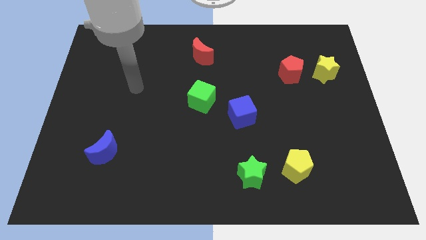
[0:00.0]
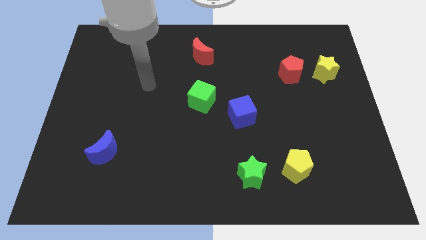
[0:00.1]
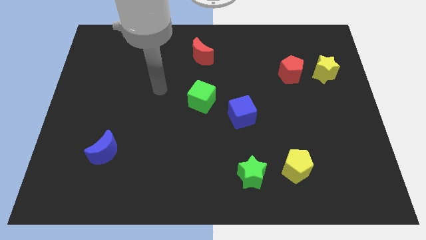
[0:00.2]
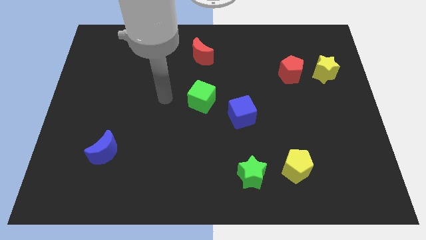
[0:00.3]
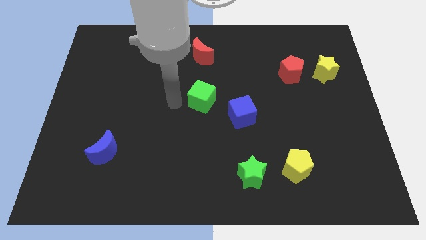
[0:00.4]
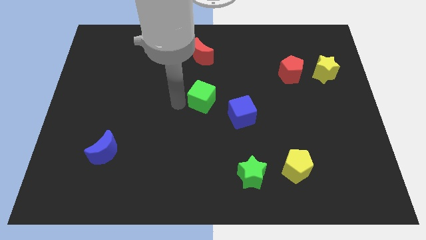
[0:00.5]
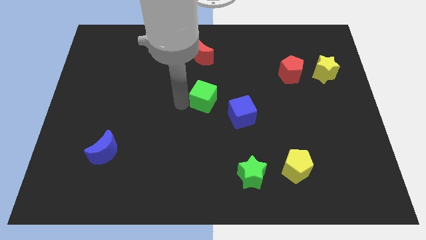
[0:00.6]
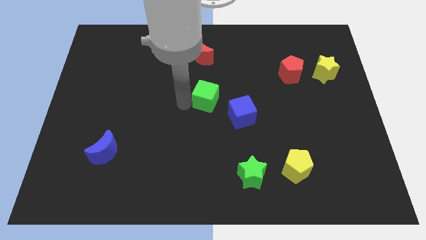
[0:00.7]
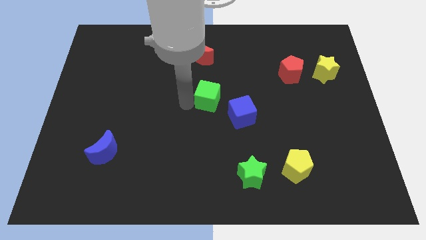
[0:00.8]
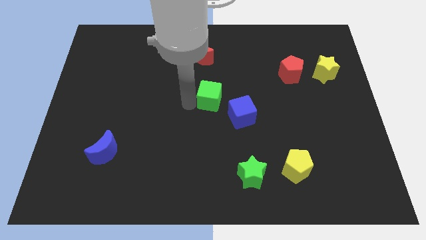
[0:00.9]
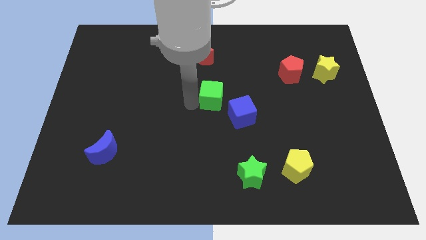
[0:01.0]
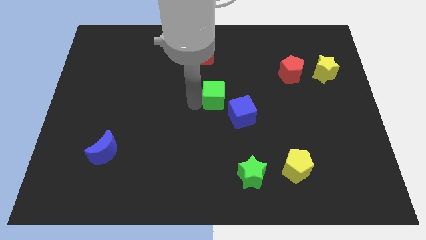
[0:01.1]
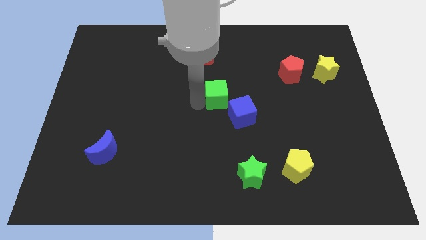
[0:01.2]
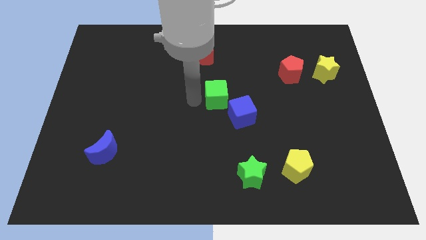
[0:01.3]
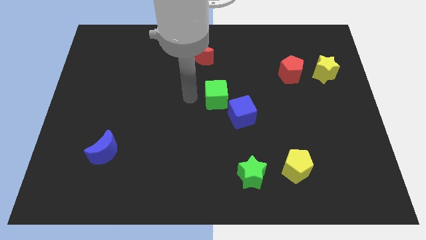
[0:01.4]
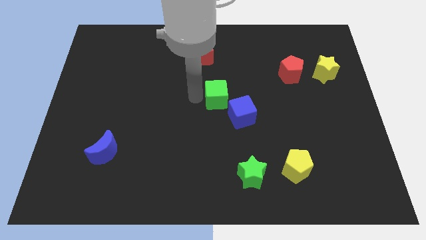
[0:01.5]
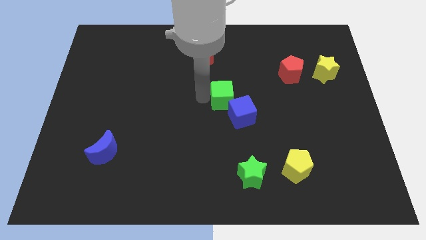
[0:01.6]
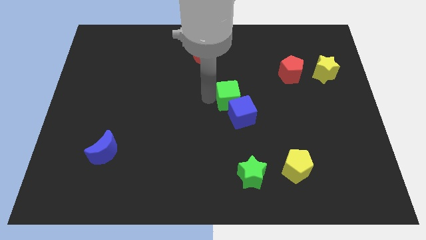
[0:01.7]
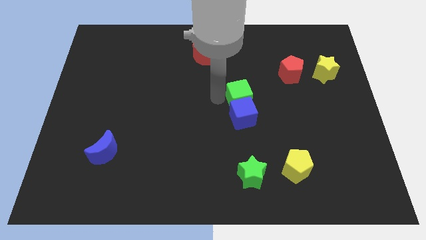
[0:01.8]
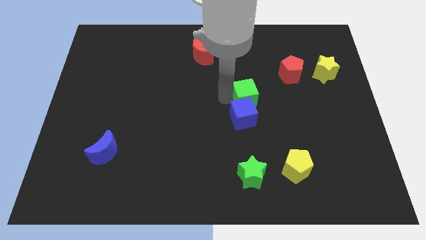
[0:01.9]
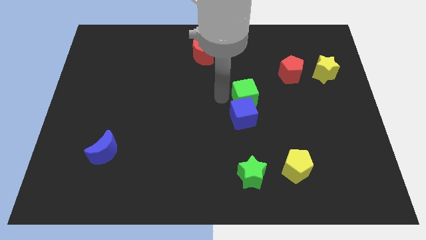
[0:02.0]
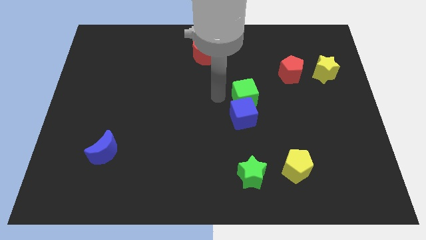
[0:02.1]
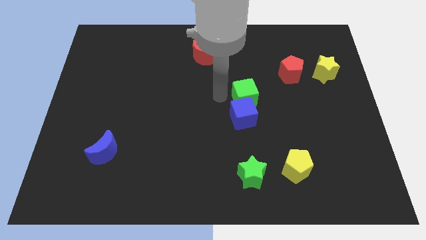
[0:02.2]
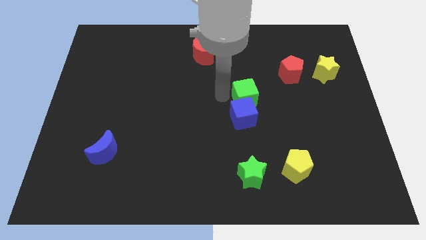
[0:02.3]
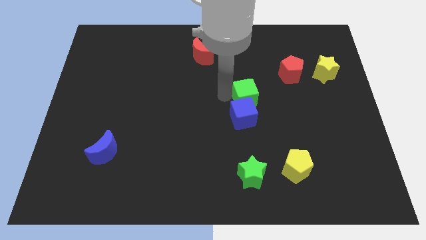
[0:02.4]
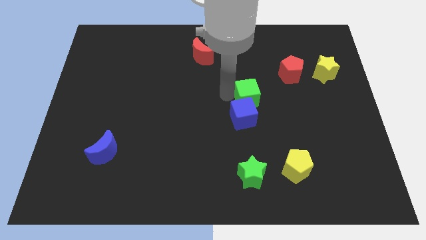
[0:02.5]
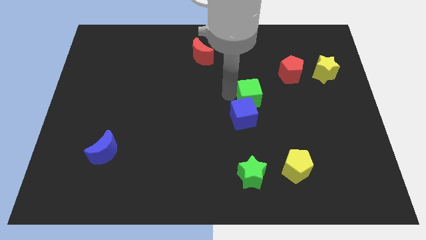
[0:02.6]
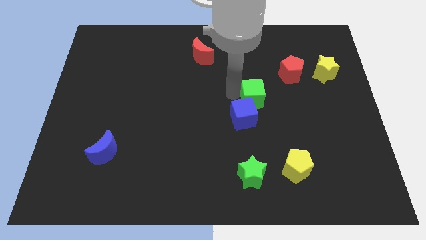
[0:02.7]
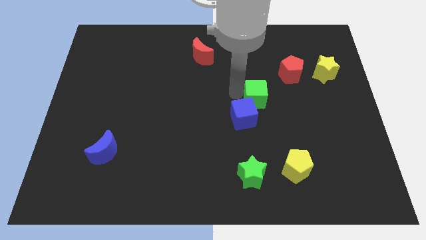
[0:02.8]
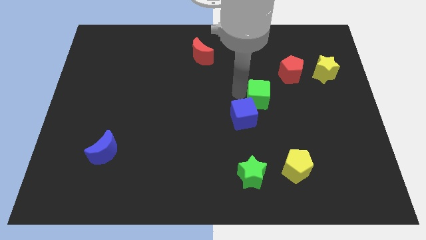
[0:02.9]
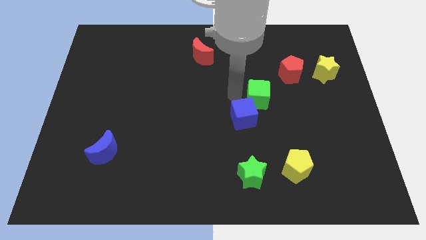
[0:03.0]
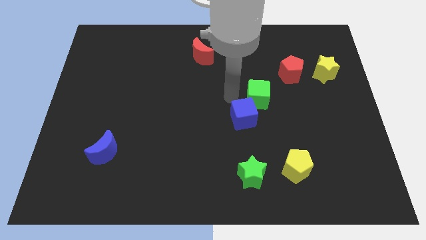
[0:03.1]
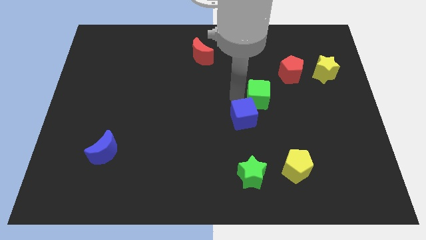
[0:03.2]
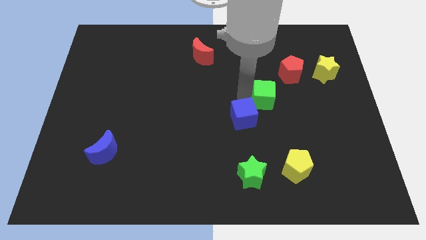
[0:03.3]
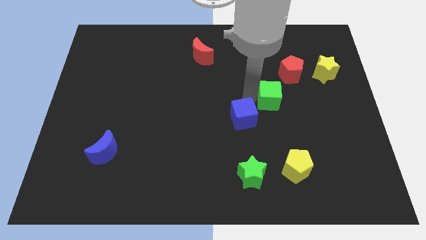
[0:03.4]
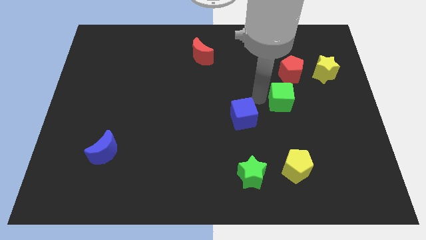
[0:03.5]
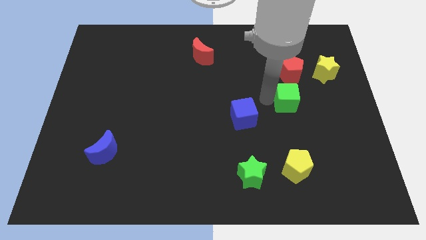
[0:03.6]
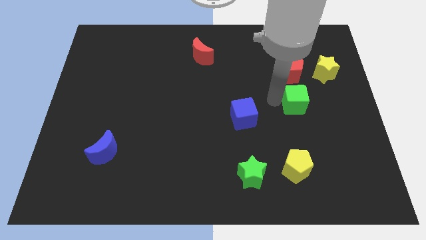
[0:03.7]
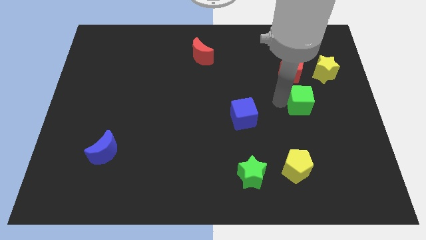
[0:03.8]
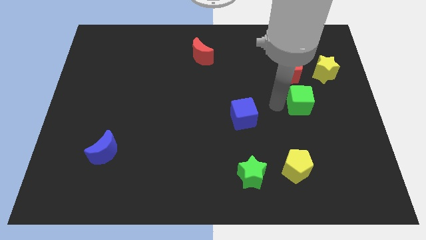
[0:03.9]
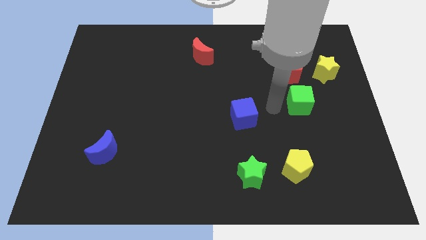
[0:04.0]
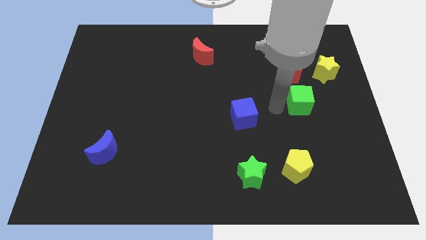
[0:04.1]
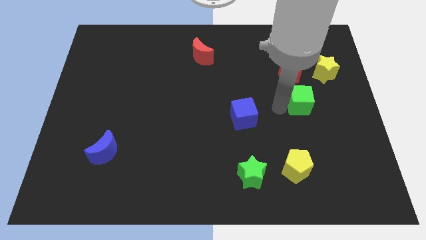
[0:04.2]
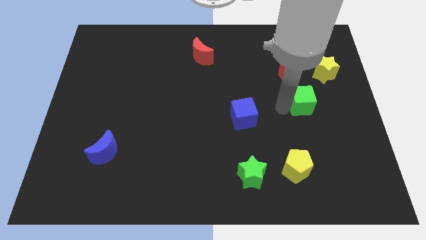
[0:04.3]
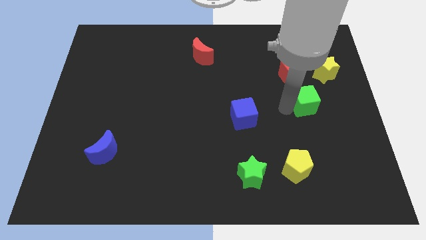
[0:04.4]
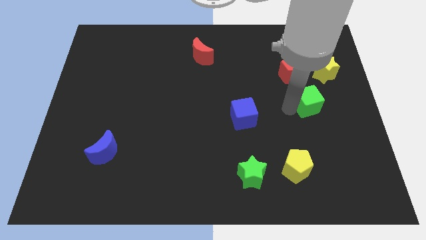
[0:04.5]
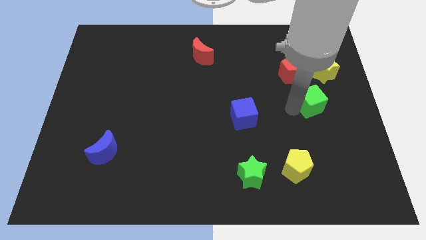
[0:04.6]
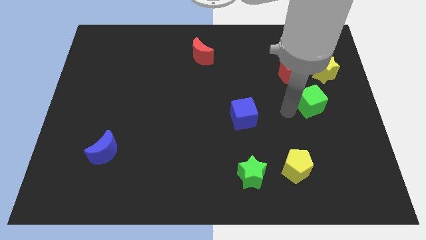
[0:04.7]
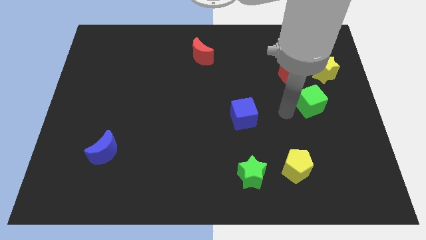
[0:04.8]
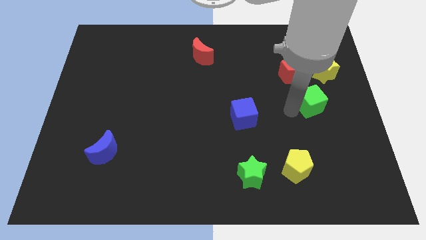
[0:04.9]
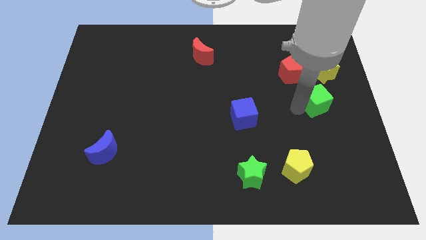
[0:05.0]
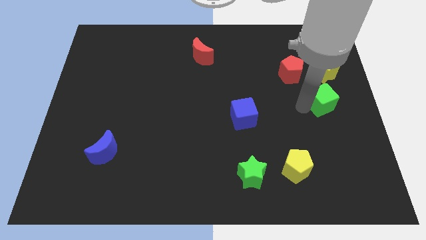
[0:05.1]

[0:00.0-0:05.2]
put the green cube to the center right
